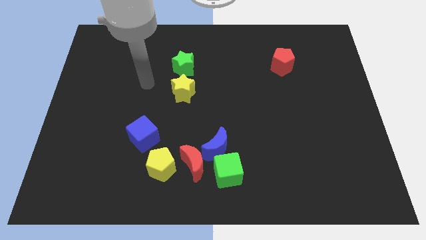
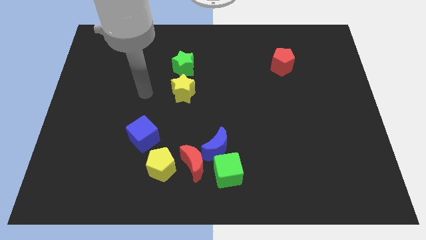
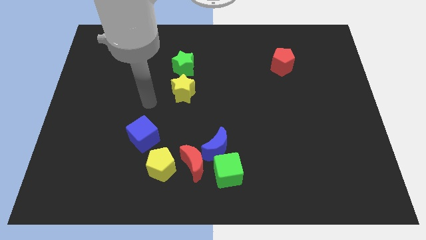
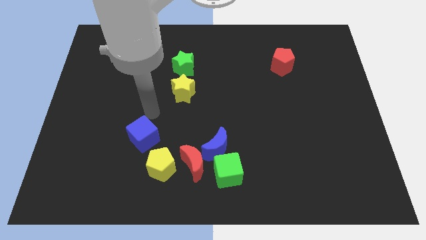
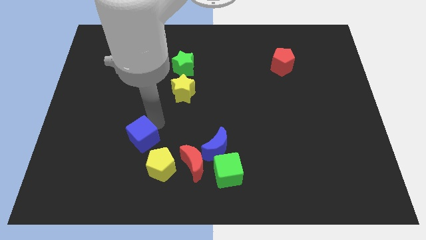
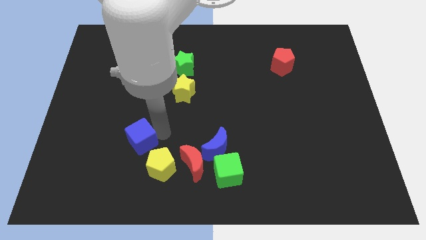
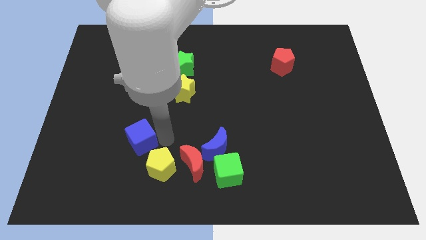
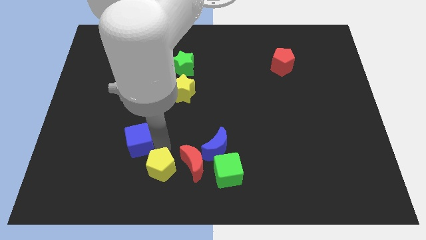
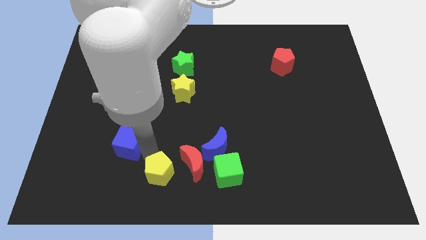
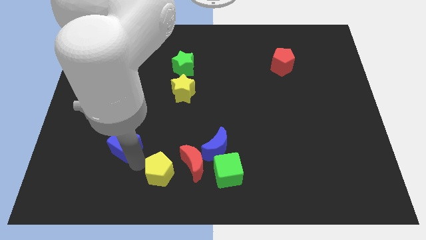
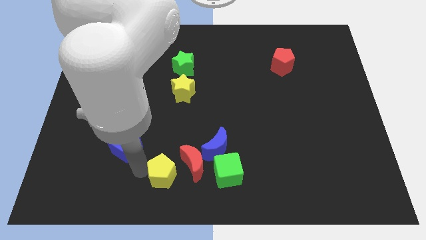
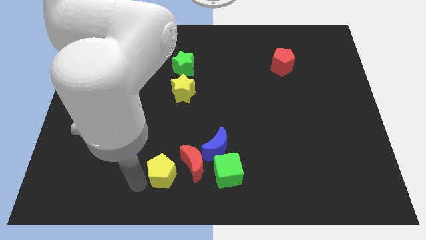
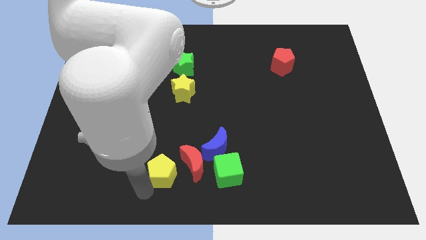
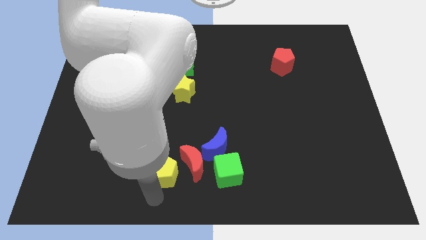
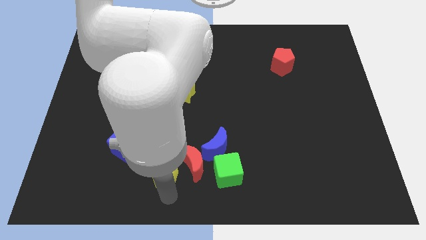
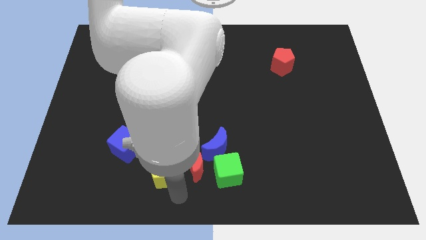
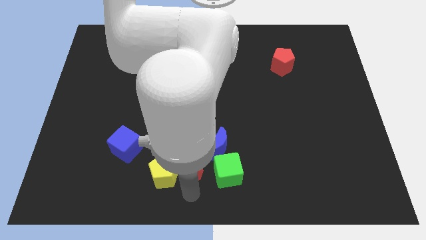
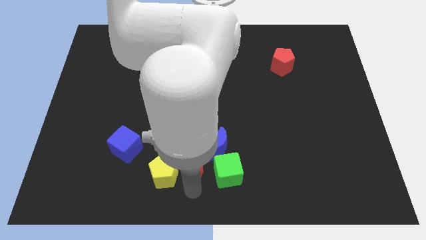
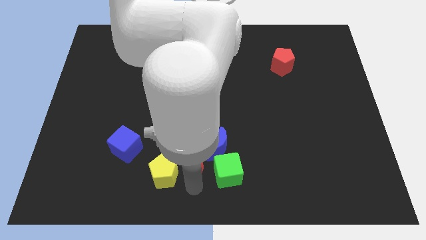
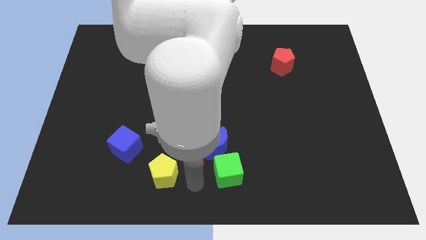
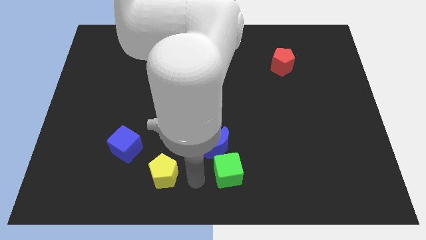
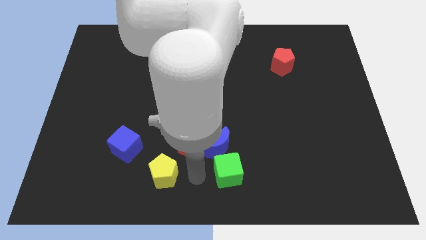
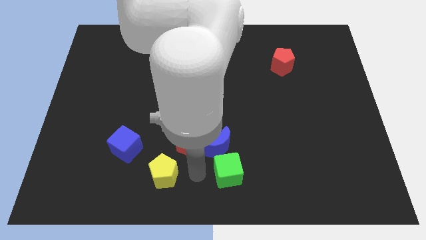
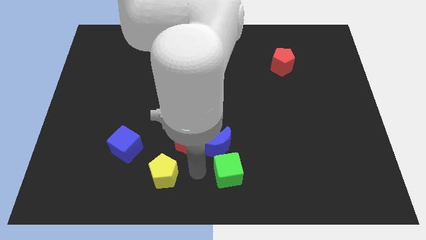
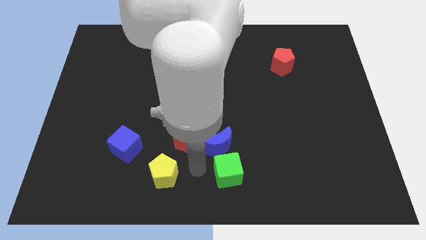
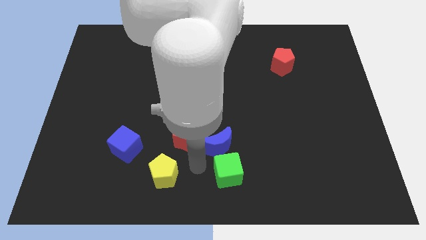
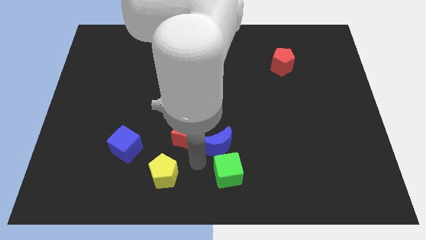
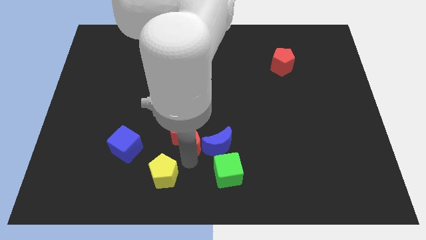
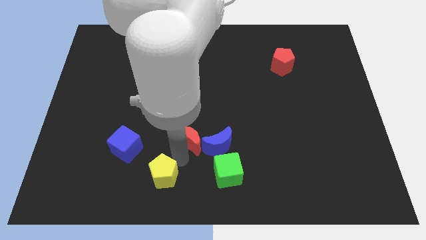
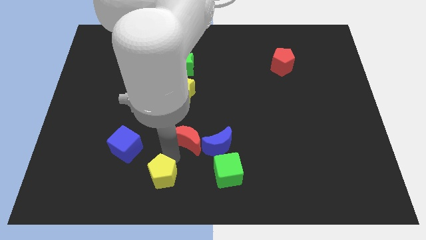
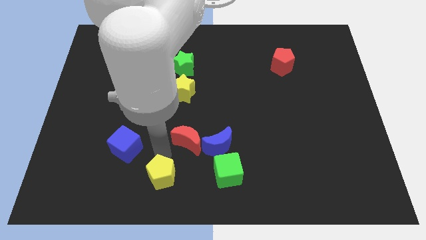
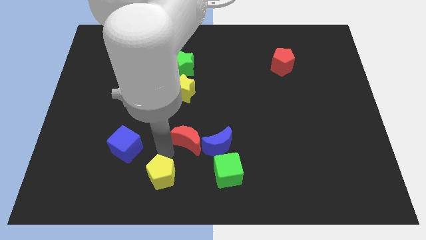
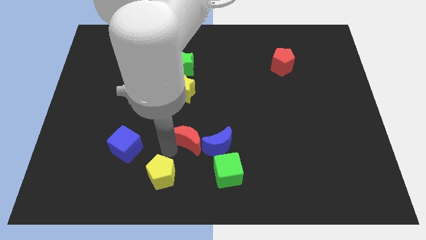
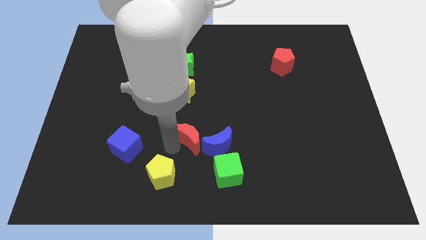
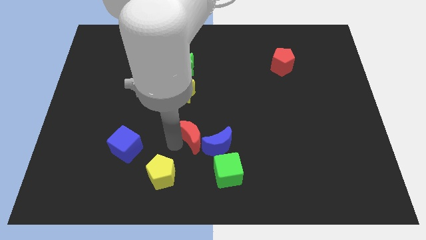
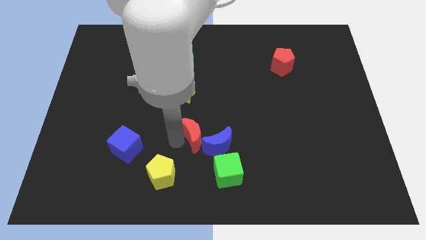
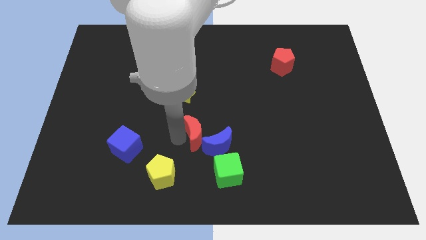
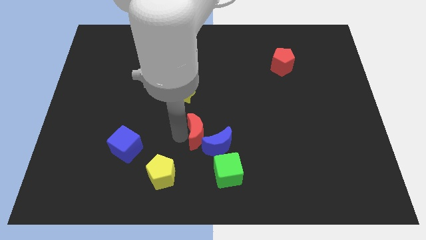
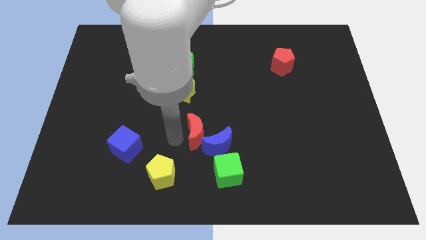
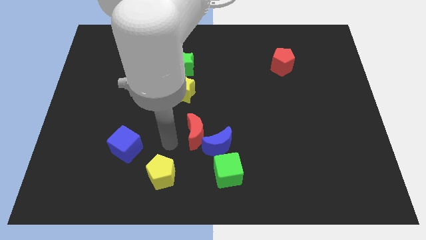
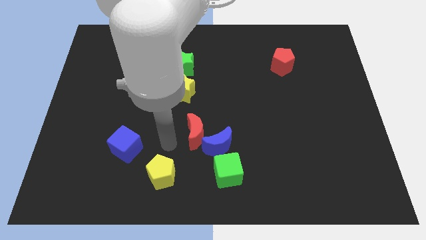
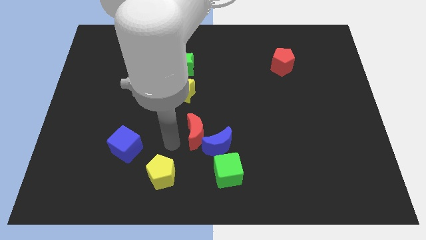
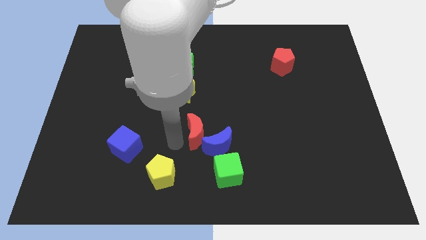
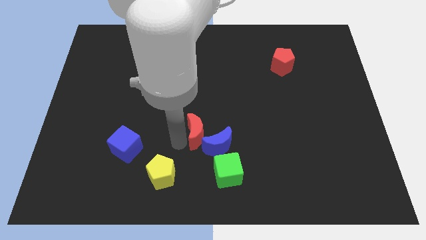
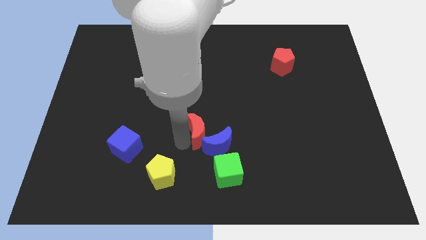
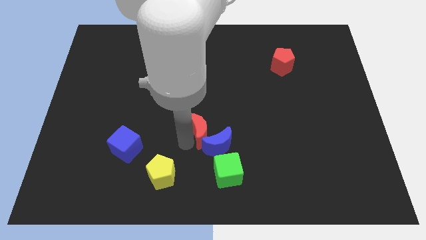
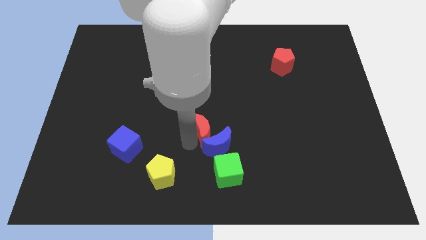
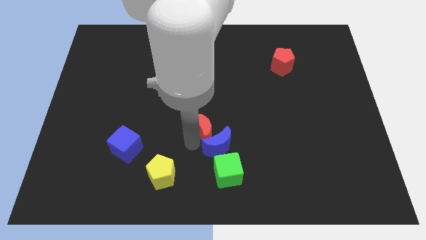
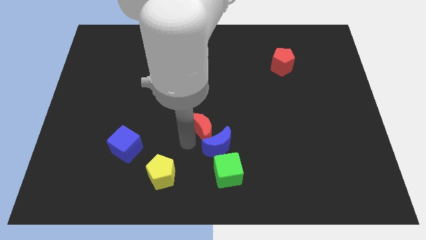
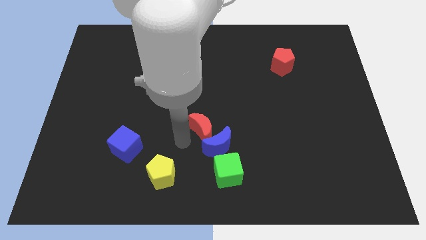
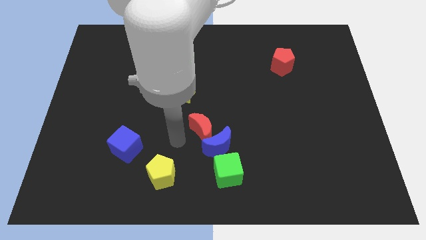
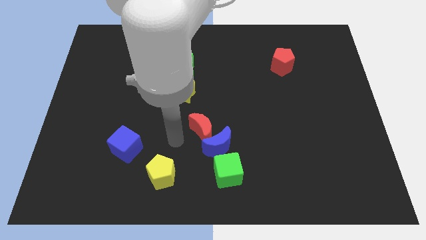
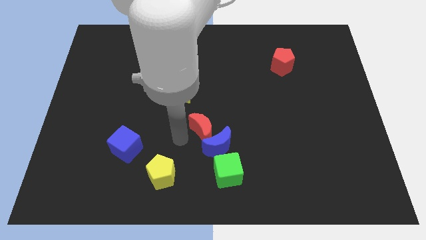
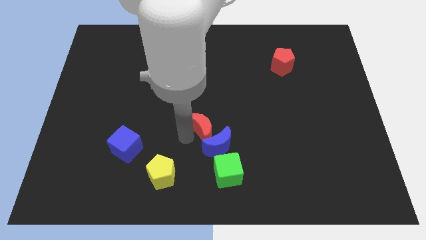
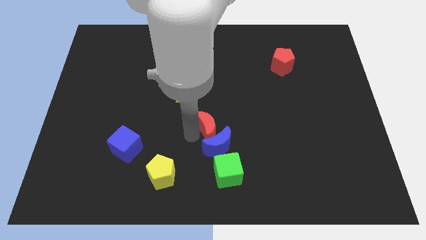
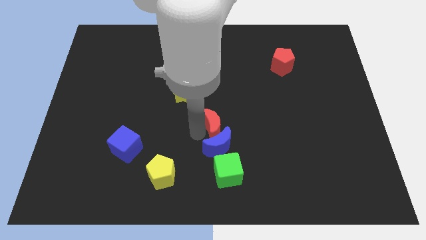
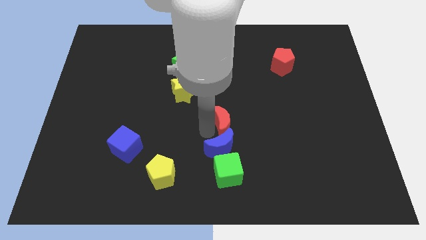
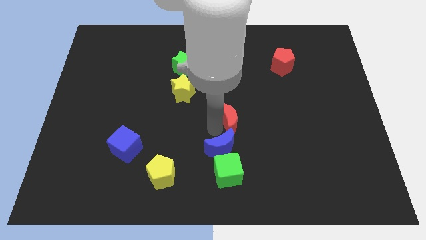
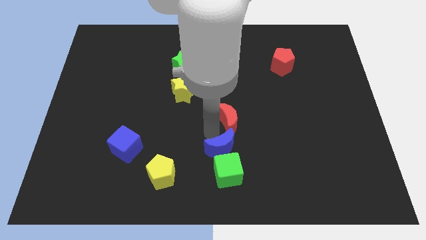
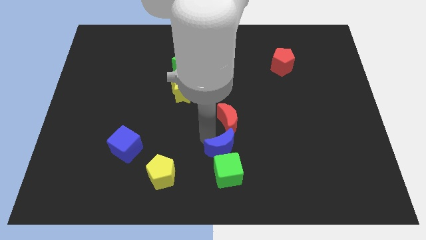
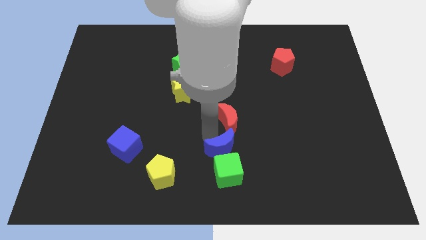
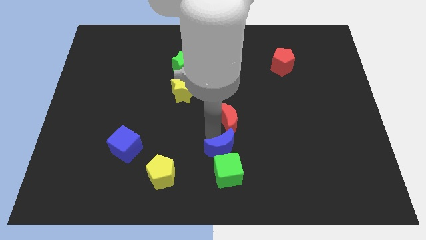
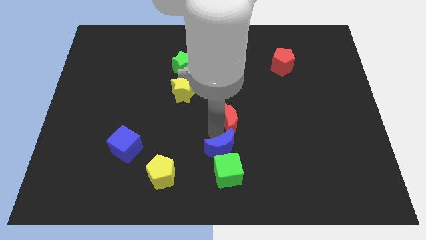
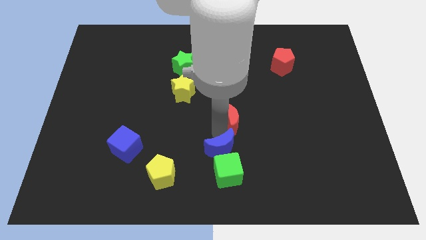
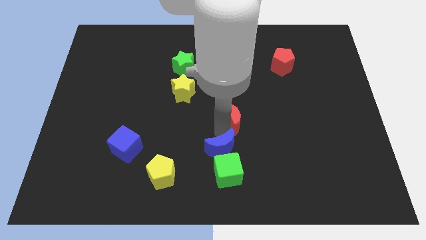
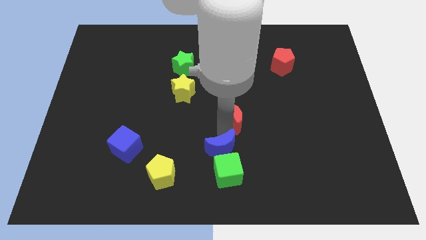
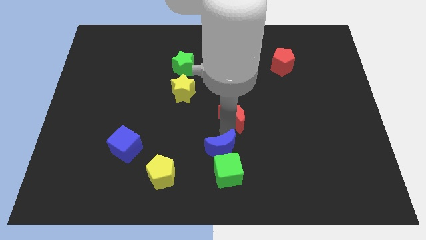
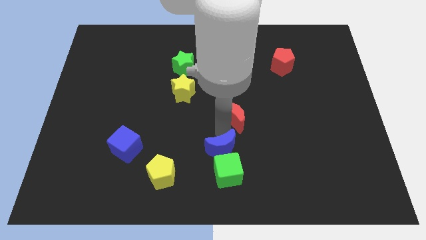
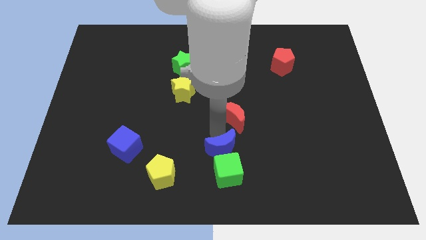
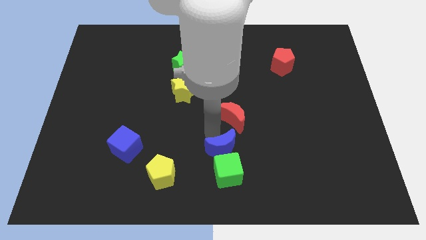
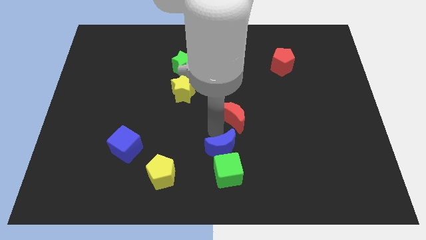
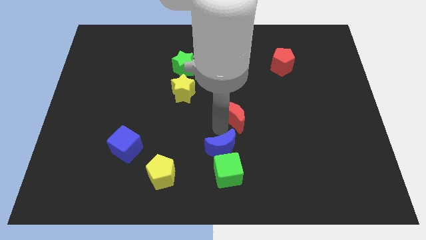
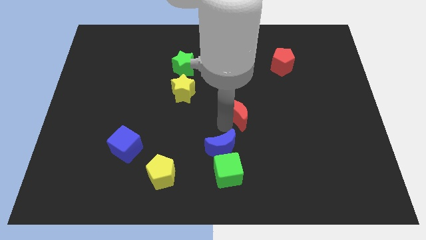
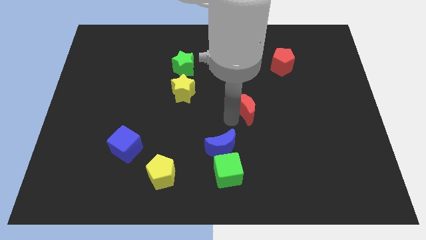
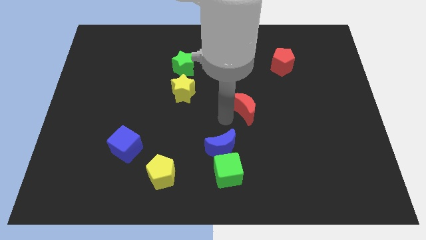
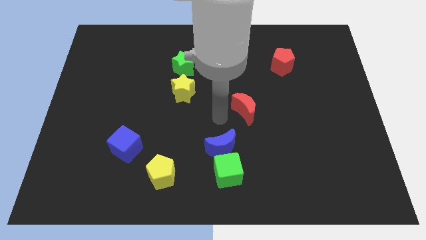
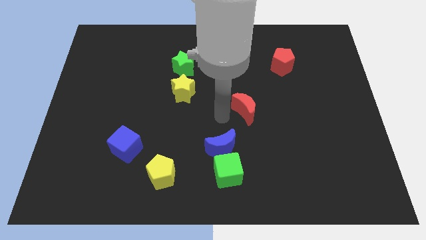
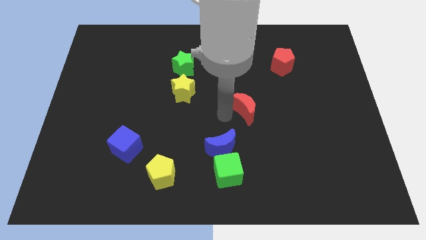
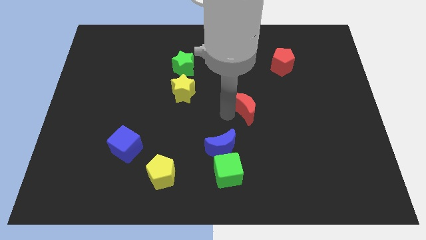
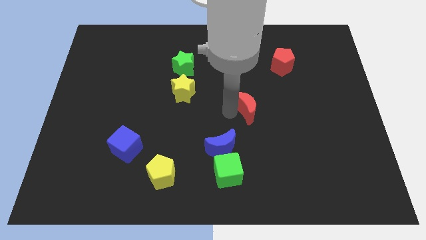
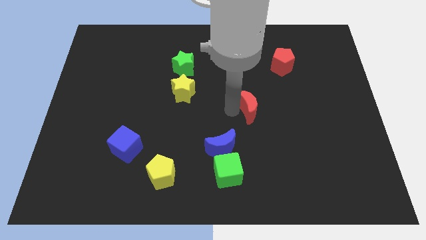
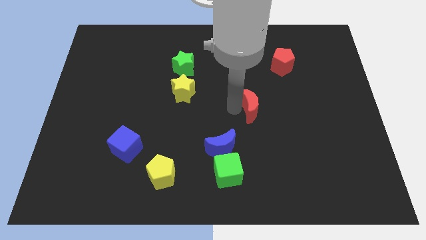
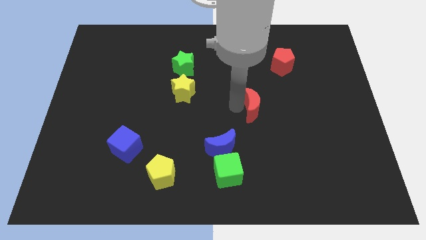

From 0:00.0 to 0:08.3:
push the red moon upwards and then right
